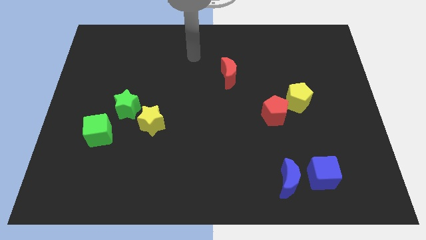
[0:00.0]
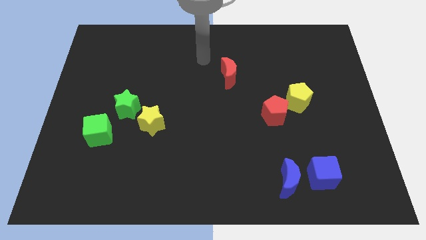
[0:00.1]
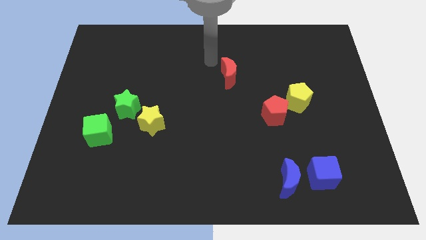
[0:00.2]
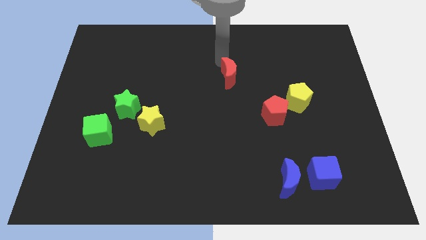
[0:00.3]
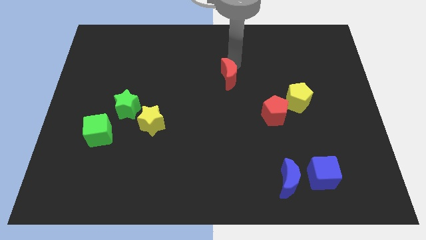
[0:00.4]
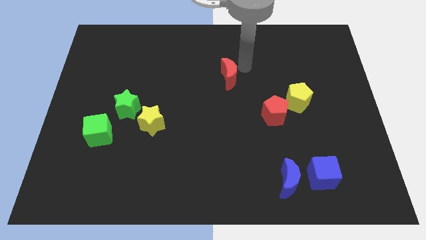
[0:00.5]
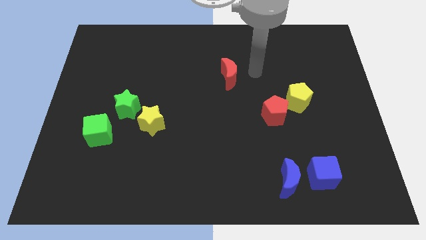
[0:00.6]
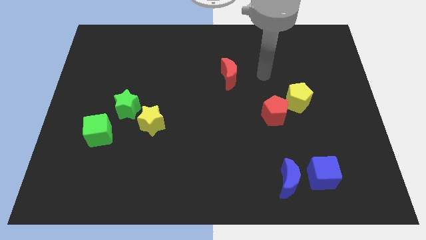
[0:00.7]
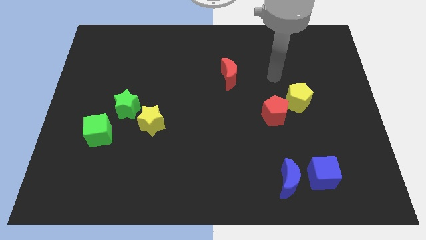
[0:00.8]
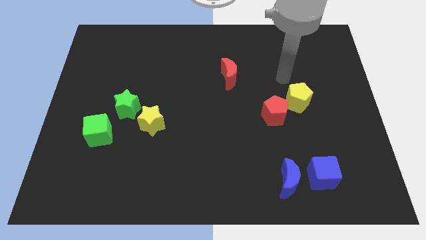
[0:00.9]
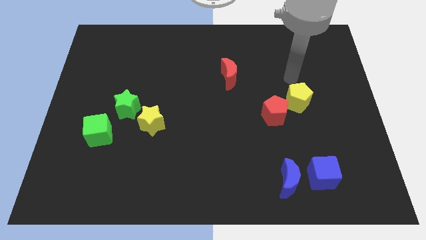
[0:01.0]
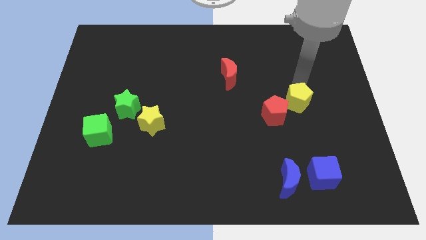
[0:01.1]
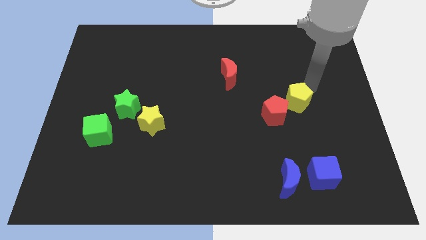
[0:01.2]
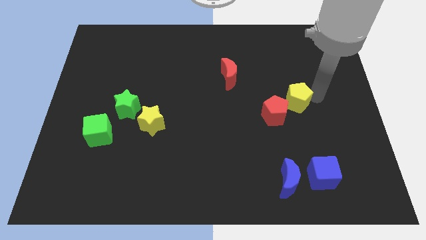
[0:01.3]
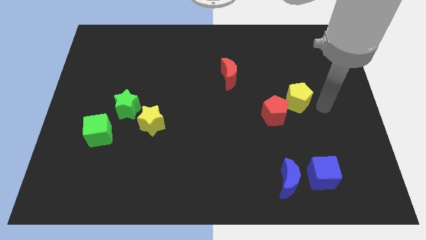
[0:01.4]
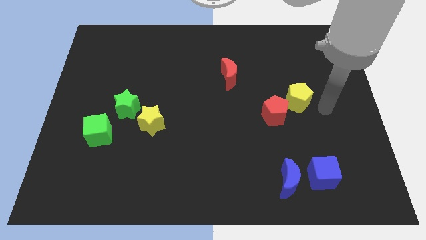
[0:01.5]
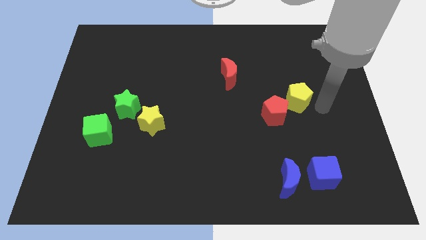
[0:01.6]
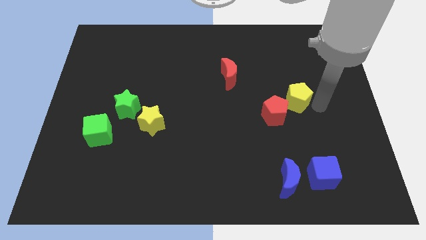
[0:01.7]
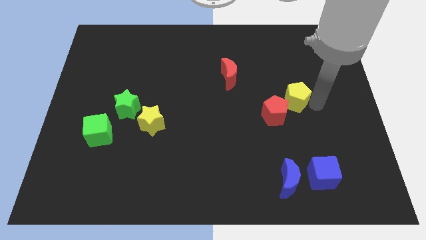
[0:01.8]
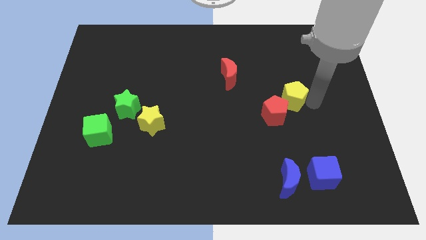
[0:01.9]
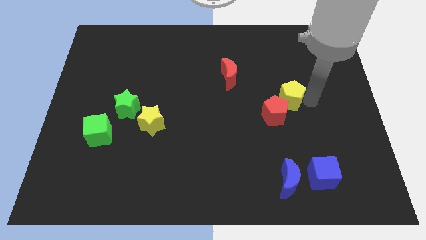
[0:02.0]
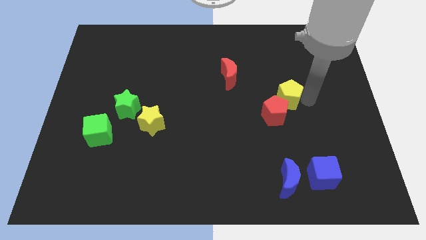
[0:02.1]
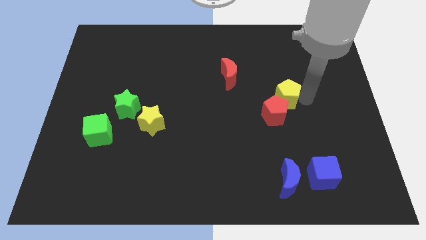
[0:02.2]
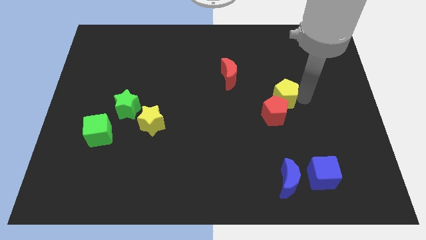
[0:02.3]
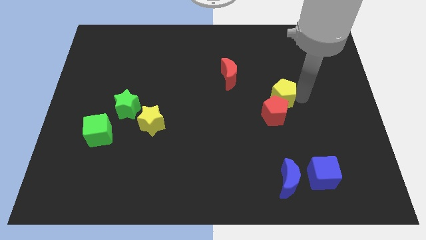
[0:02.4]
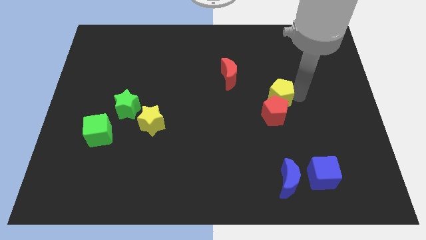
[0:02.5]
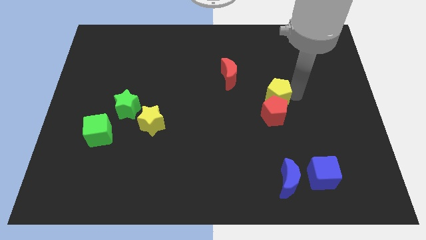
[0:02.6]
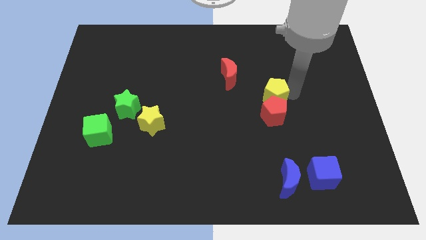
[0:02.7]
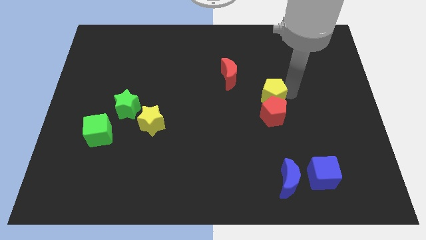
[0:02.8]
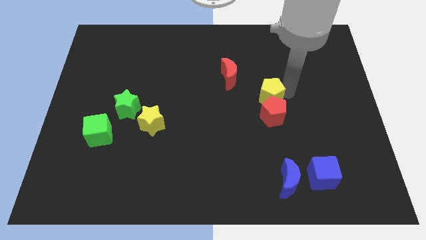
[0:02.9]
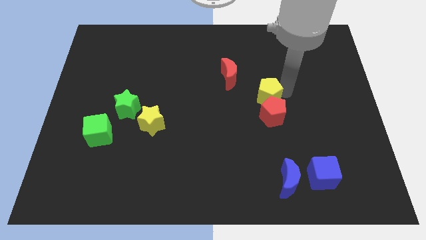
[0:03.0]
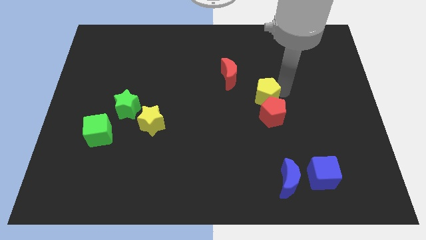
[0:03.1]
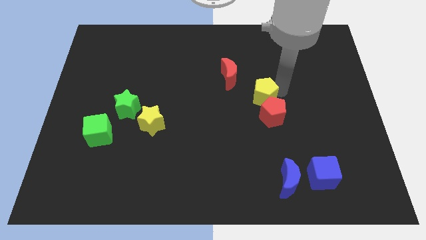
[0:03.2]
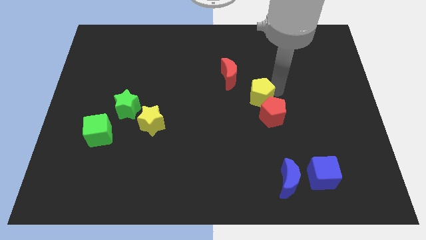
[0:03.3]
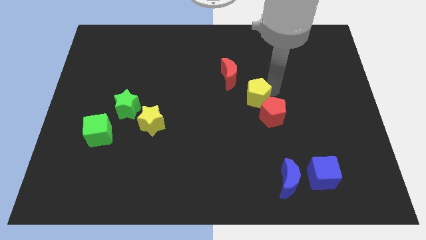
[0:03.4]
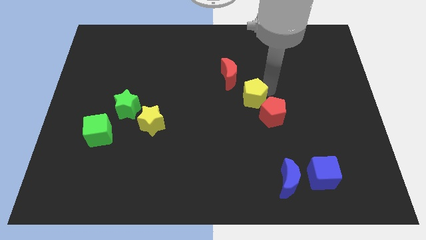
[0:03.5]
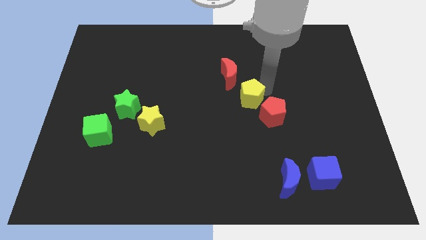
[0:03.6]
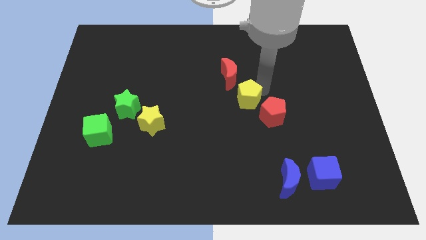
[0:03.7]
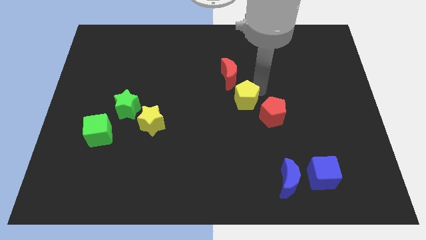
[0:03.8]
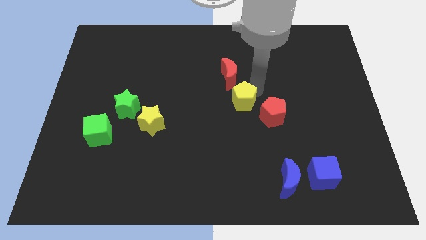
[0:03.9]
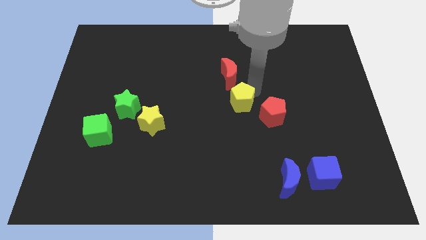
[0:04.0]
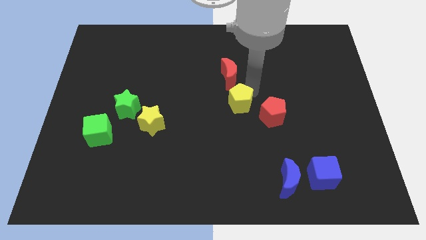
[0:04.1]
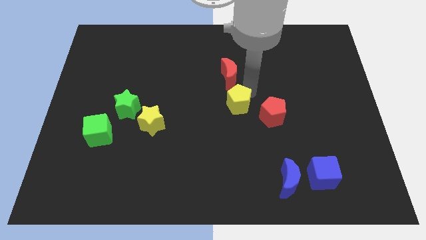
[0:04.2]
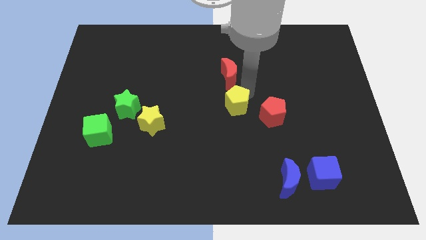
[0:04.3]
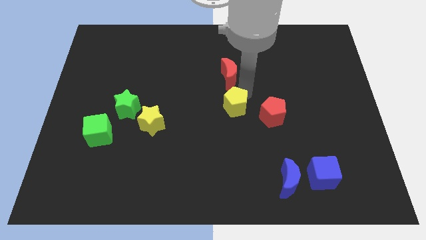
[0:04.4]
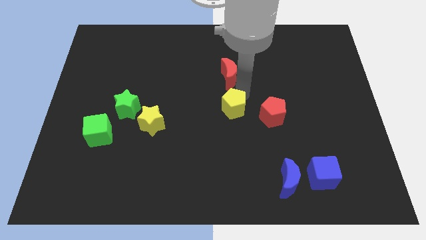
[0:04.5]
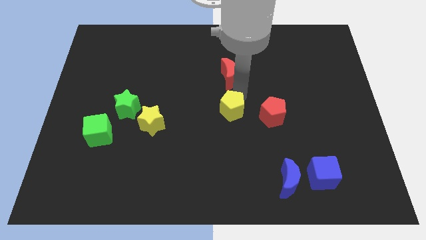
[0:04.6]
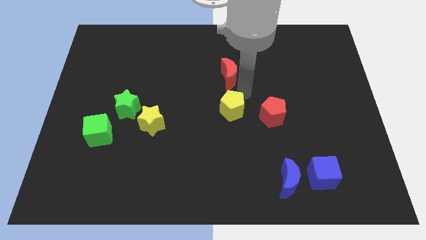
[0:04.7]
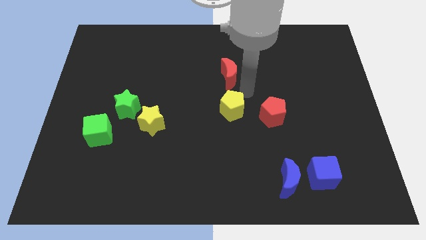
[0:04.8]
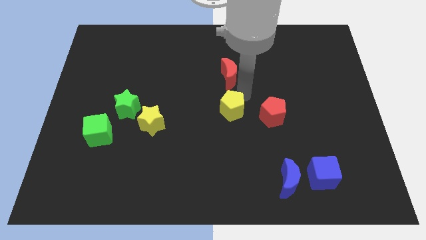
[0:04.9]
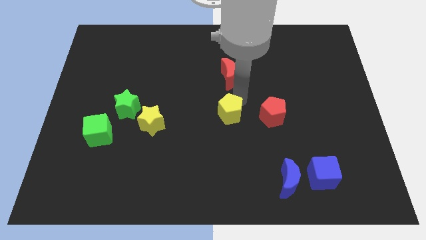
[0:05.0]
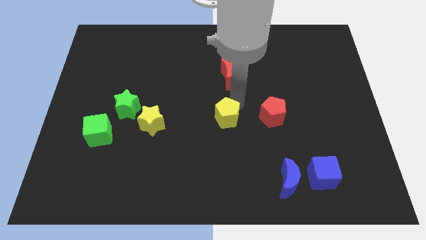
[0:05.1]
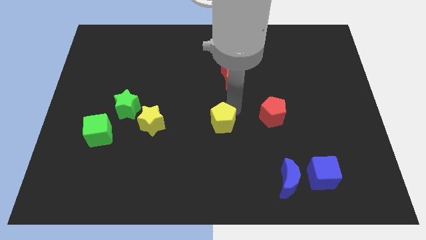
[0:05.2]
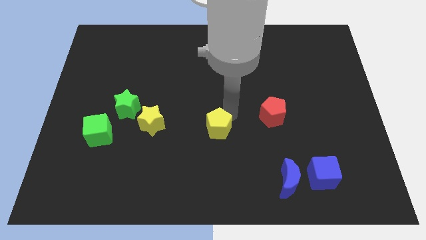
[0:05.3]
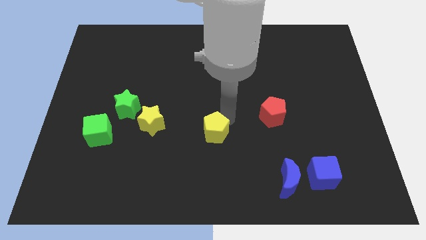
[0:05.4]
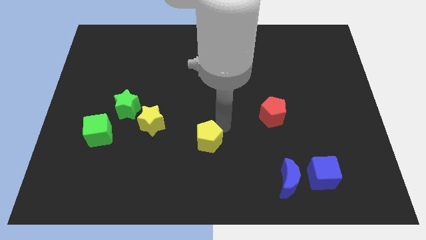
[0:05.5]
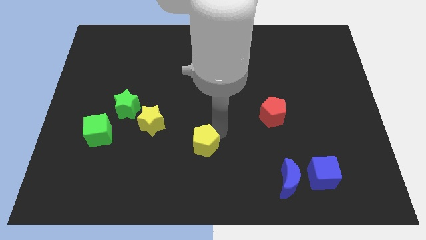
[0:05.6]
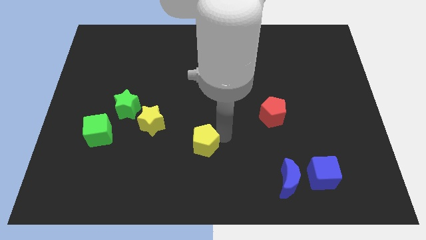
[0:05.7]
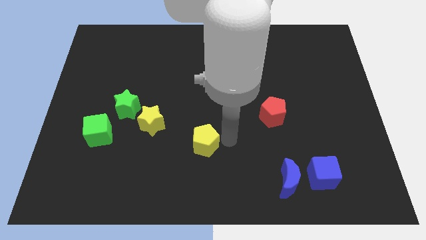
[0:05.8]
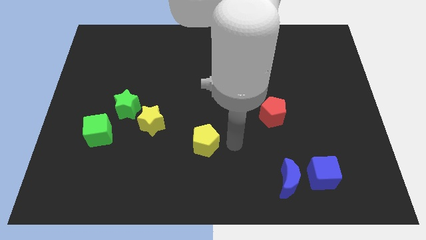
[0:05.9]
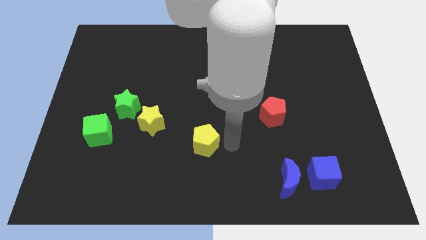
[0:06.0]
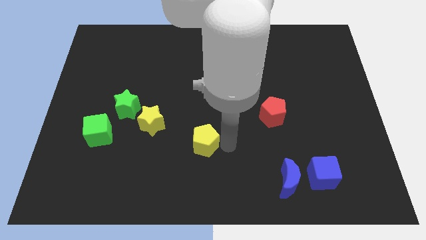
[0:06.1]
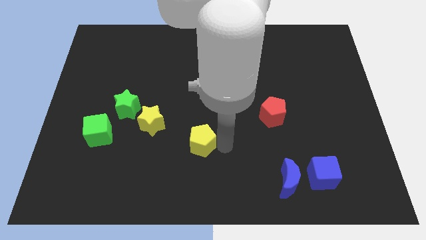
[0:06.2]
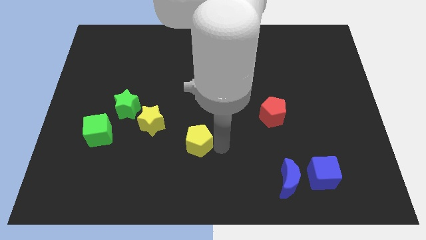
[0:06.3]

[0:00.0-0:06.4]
put the yellow pentagon diagonally down and to the right of the yellow star

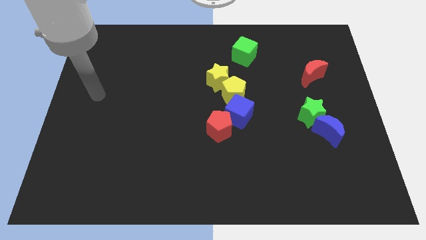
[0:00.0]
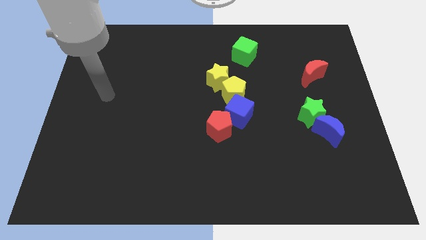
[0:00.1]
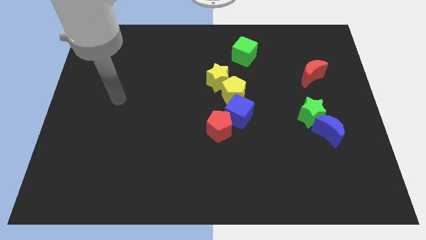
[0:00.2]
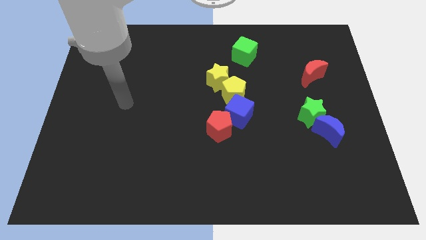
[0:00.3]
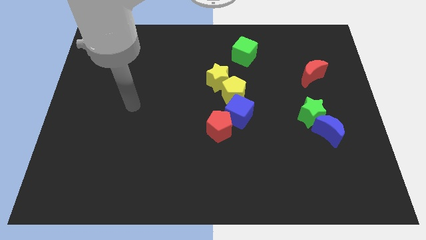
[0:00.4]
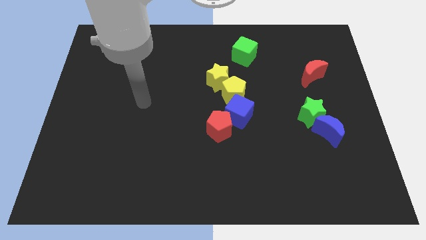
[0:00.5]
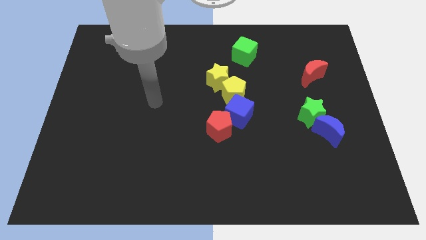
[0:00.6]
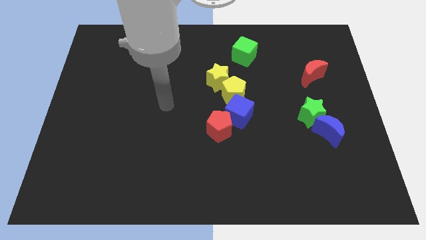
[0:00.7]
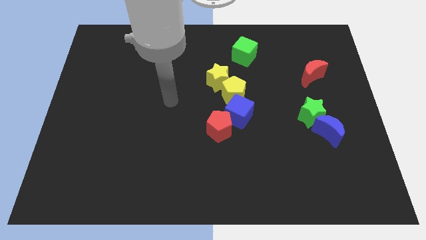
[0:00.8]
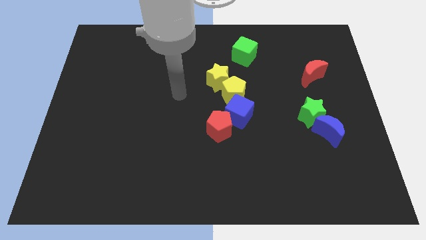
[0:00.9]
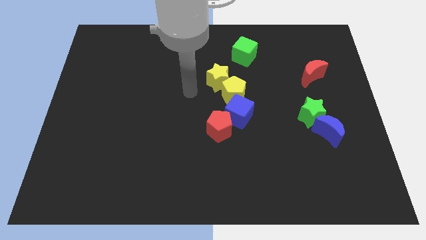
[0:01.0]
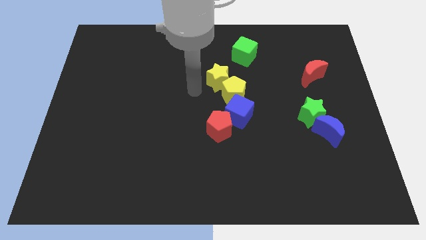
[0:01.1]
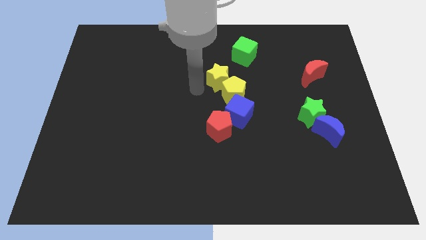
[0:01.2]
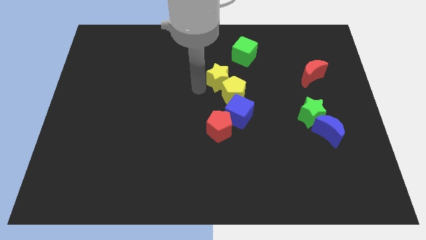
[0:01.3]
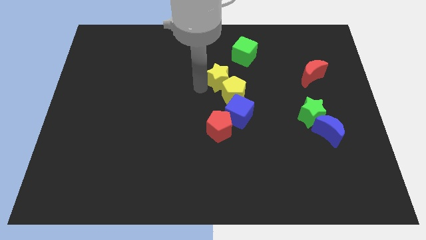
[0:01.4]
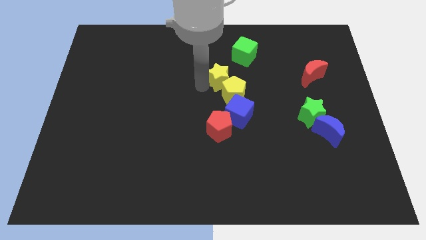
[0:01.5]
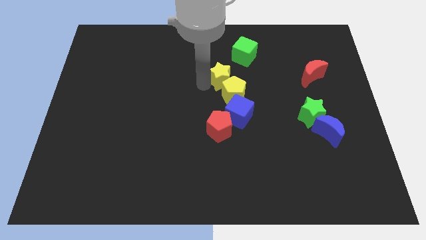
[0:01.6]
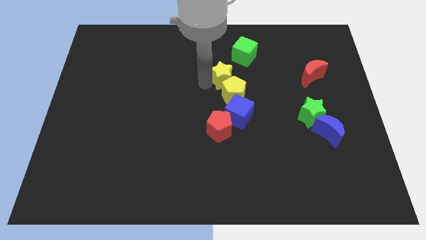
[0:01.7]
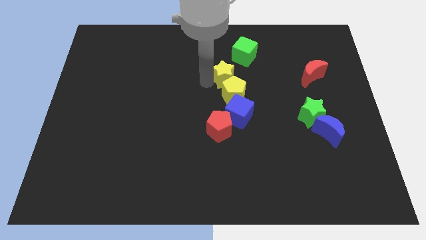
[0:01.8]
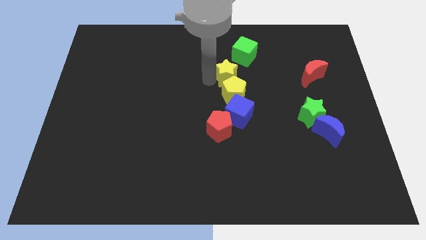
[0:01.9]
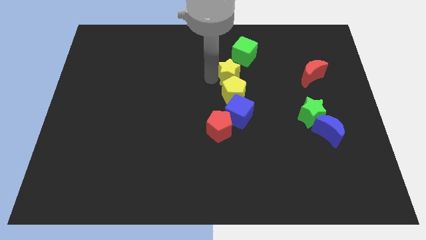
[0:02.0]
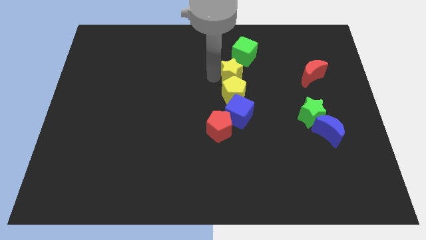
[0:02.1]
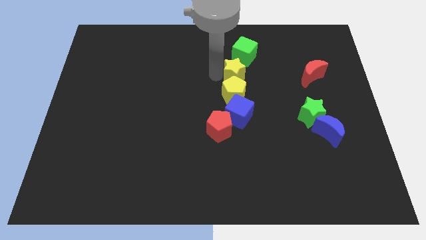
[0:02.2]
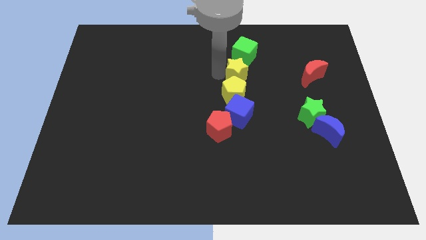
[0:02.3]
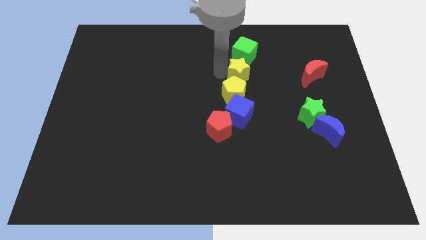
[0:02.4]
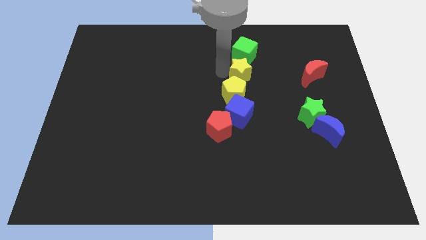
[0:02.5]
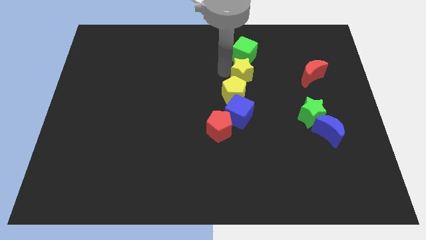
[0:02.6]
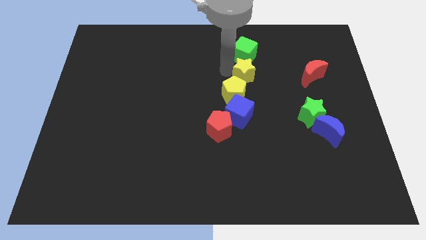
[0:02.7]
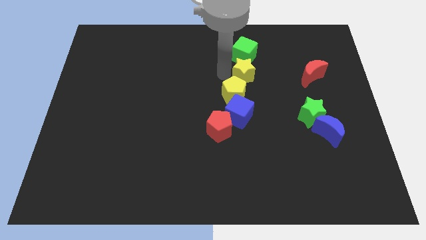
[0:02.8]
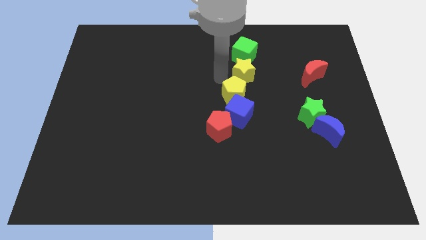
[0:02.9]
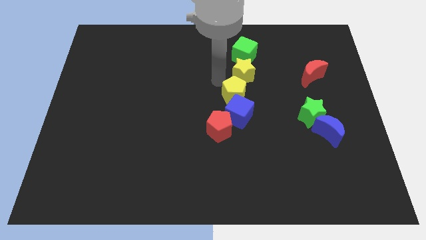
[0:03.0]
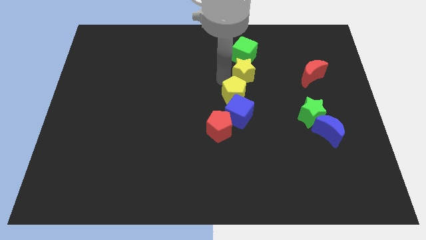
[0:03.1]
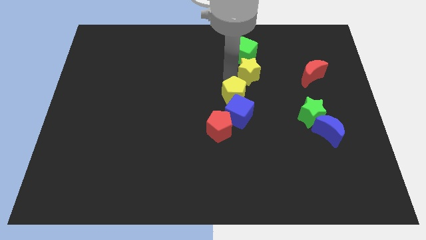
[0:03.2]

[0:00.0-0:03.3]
move the yellow star to the bottom right of the green cube
